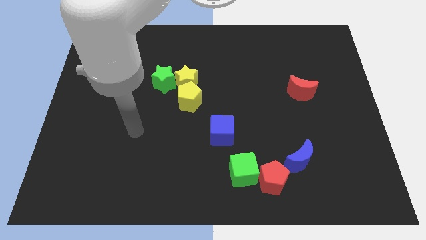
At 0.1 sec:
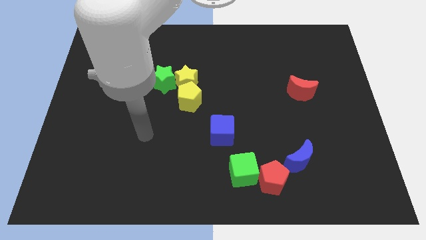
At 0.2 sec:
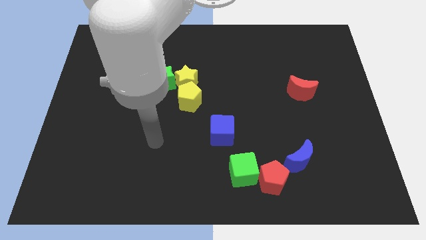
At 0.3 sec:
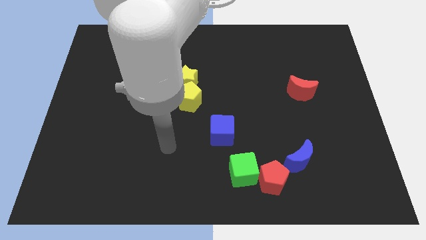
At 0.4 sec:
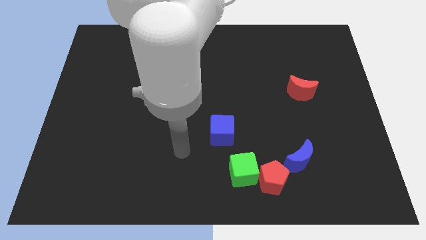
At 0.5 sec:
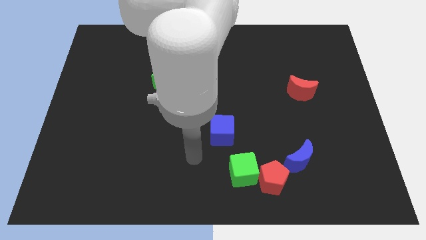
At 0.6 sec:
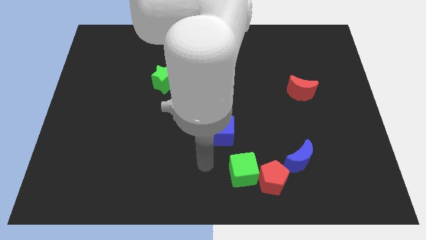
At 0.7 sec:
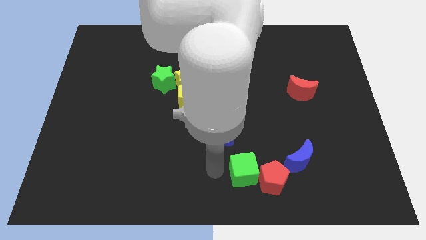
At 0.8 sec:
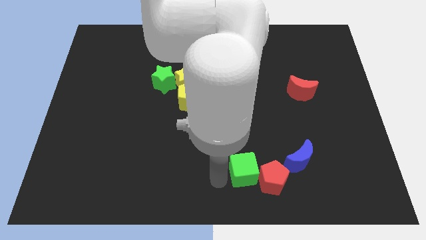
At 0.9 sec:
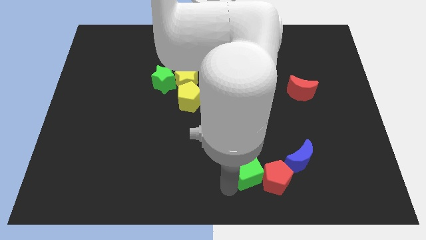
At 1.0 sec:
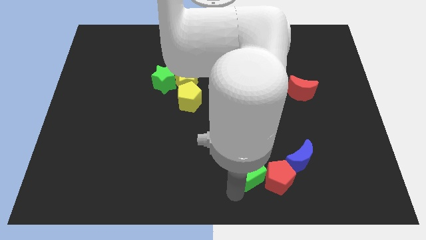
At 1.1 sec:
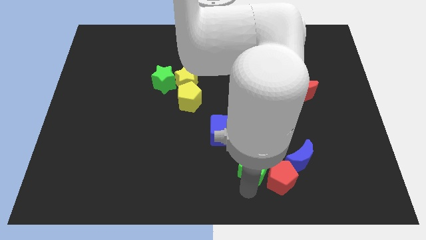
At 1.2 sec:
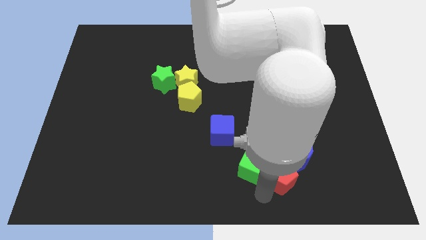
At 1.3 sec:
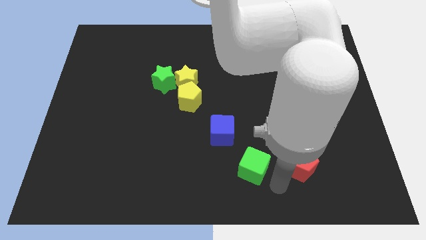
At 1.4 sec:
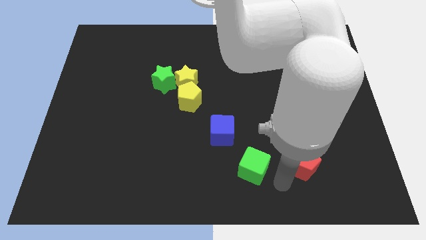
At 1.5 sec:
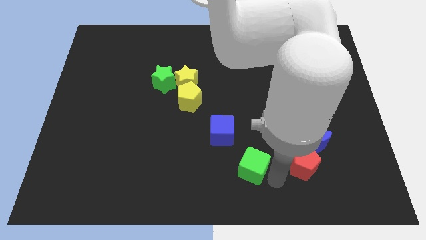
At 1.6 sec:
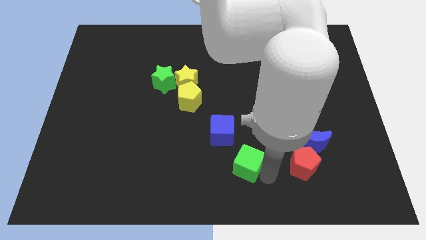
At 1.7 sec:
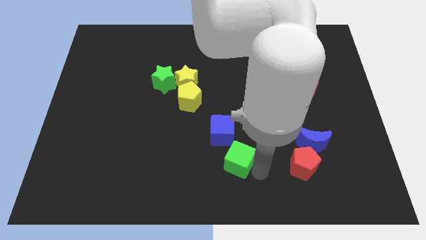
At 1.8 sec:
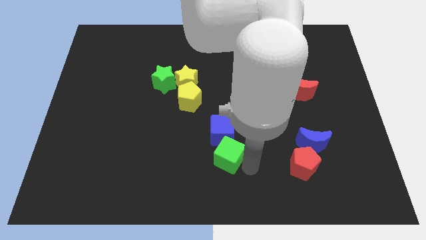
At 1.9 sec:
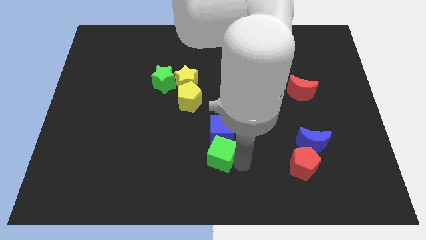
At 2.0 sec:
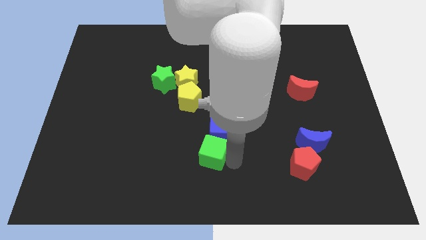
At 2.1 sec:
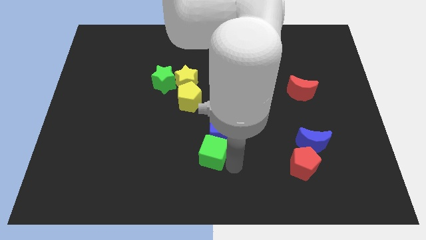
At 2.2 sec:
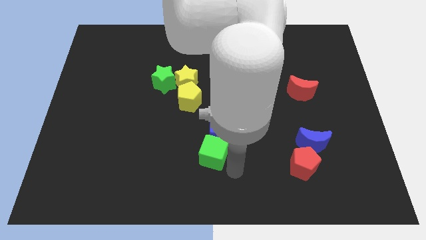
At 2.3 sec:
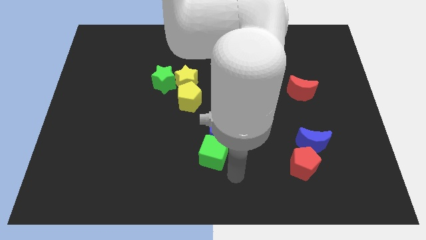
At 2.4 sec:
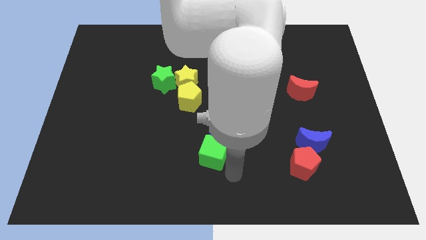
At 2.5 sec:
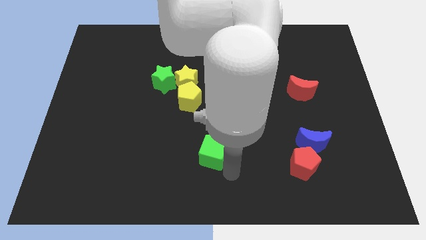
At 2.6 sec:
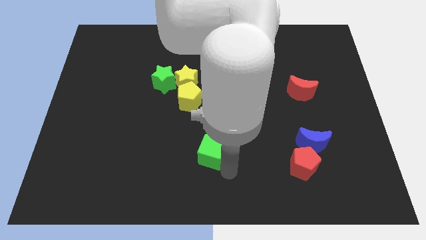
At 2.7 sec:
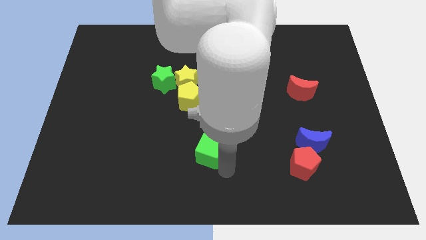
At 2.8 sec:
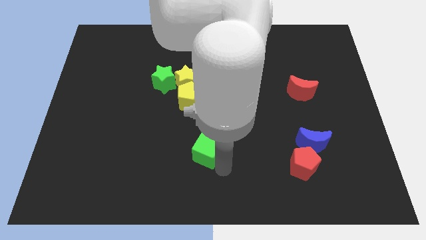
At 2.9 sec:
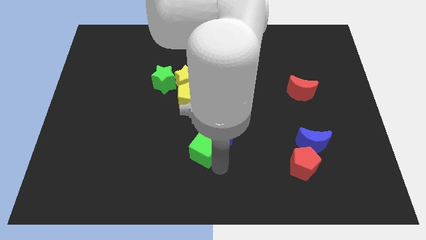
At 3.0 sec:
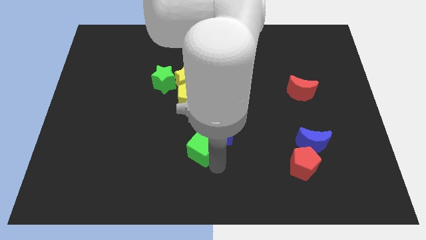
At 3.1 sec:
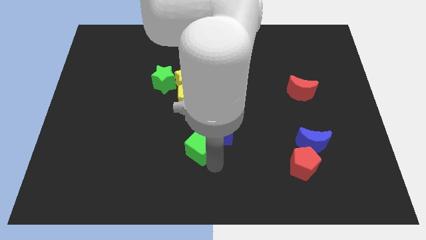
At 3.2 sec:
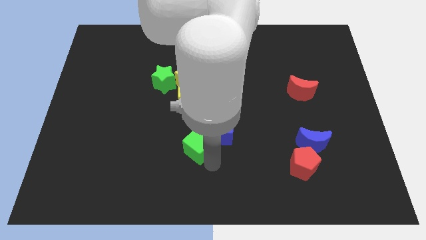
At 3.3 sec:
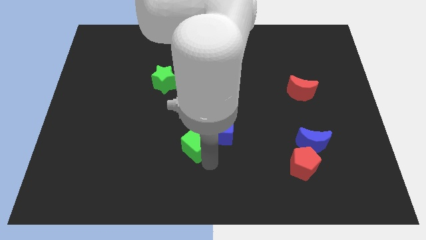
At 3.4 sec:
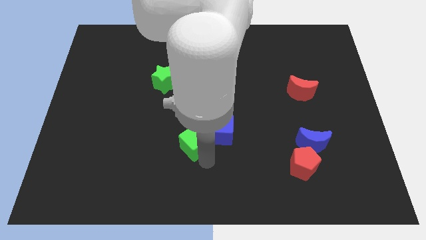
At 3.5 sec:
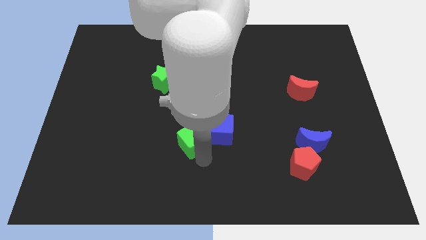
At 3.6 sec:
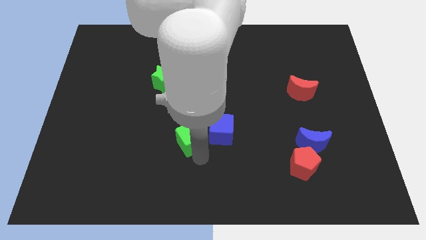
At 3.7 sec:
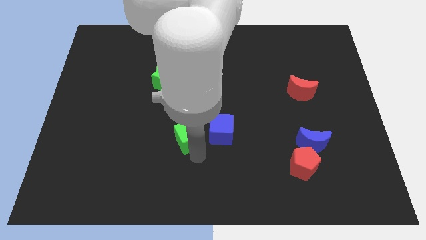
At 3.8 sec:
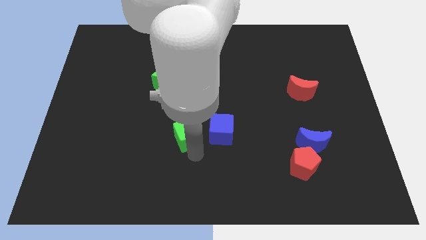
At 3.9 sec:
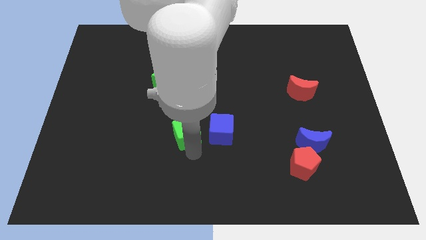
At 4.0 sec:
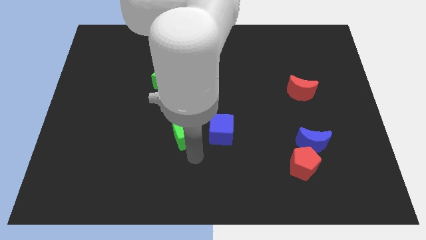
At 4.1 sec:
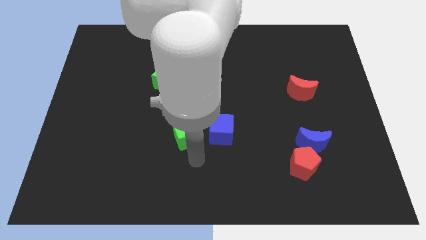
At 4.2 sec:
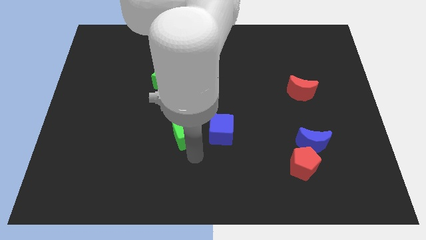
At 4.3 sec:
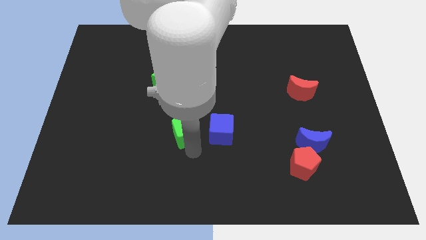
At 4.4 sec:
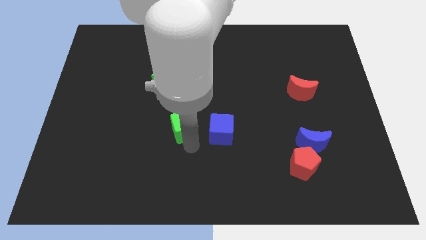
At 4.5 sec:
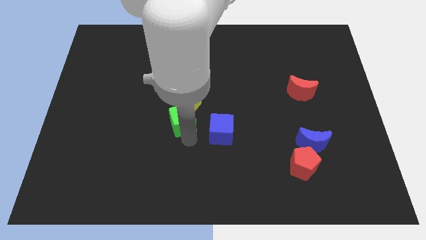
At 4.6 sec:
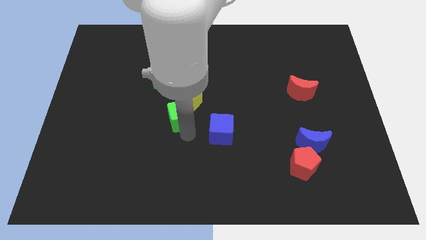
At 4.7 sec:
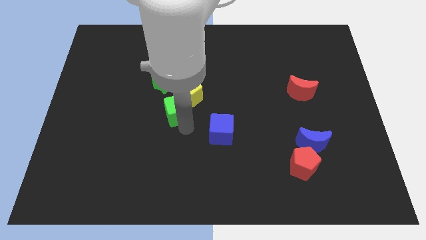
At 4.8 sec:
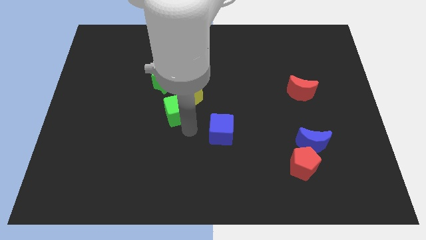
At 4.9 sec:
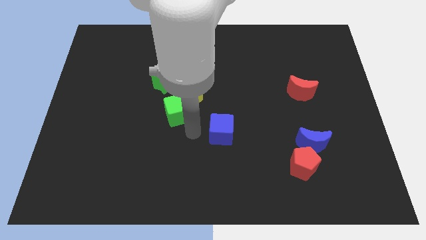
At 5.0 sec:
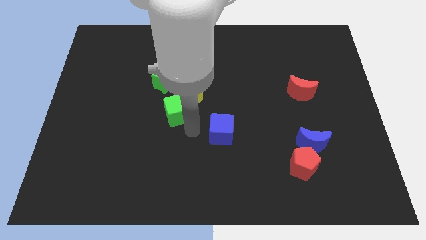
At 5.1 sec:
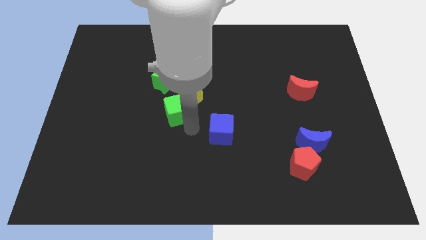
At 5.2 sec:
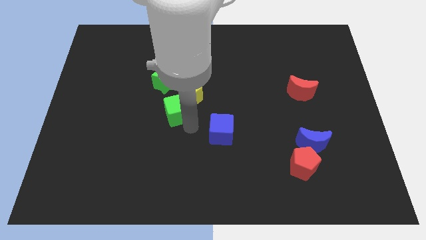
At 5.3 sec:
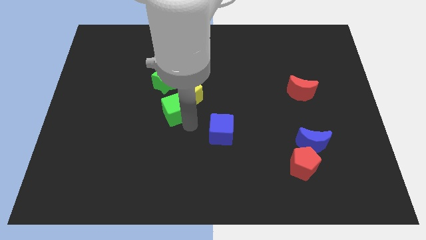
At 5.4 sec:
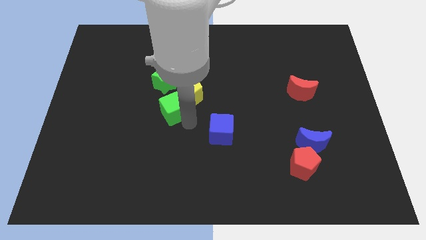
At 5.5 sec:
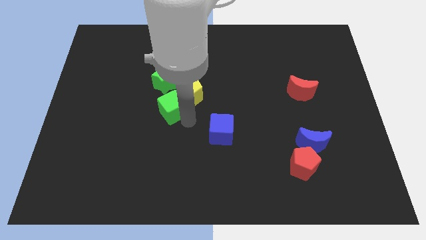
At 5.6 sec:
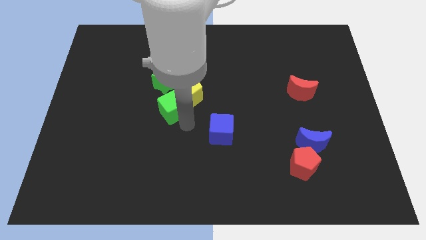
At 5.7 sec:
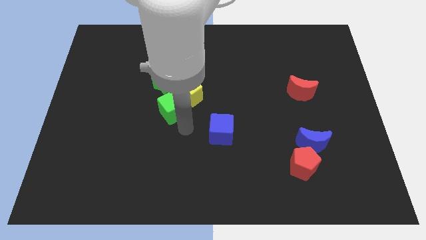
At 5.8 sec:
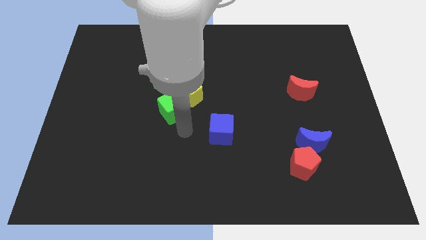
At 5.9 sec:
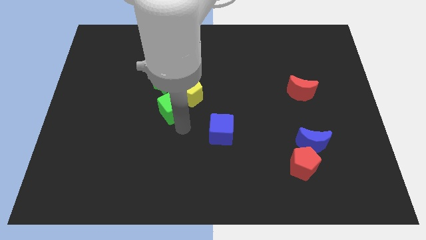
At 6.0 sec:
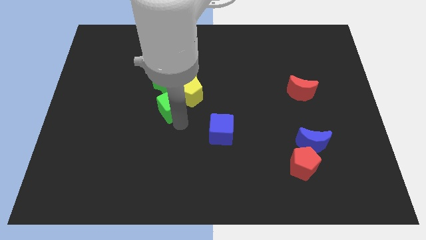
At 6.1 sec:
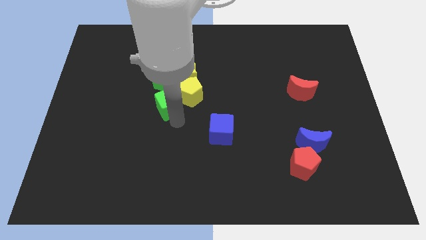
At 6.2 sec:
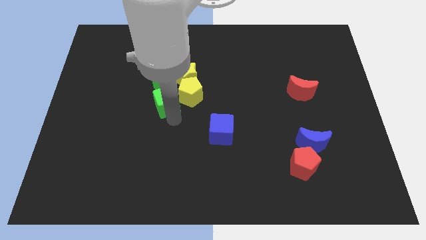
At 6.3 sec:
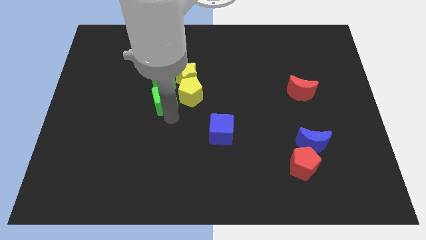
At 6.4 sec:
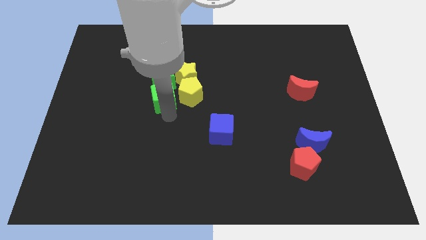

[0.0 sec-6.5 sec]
push the green cube to the green star
